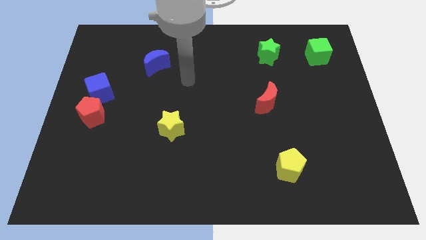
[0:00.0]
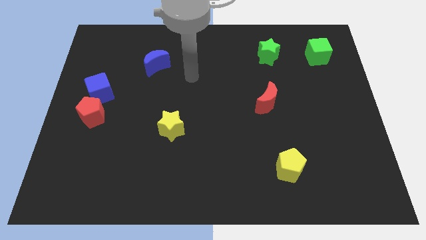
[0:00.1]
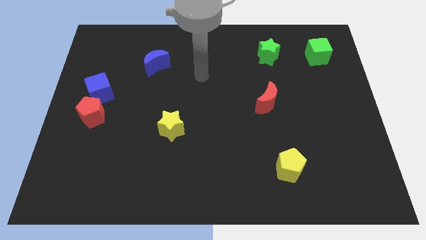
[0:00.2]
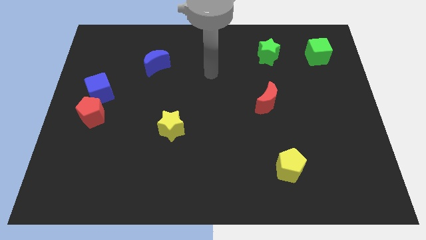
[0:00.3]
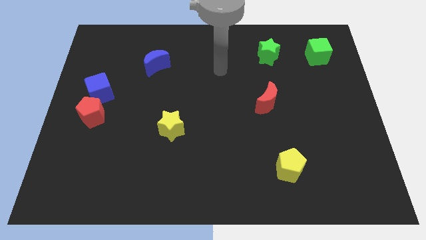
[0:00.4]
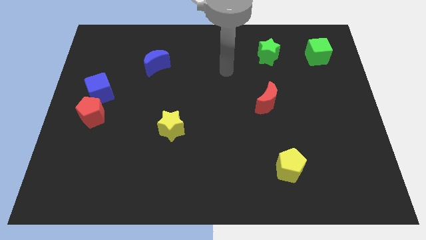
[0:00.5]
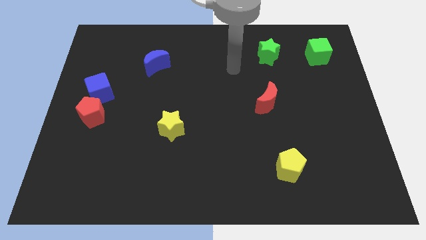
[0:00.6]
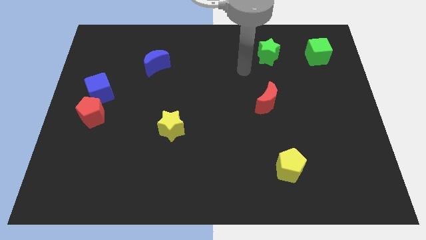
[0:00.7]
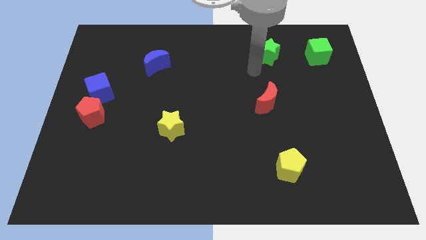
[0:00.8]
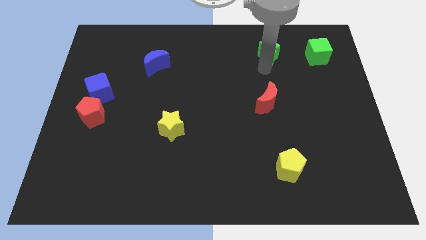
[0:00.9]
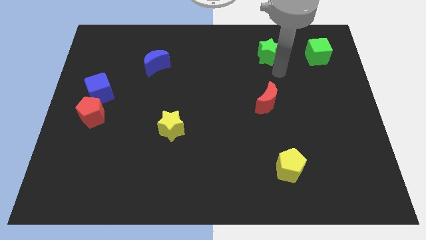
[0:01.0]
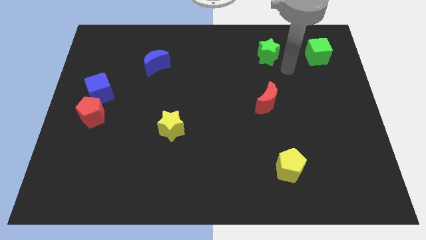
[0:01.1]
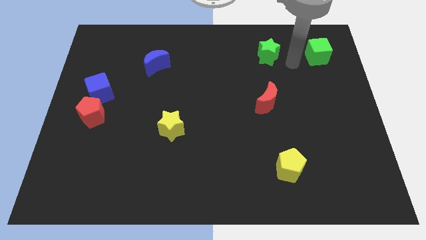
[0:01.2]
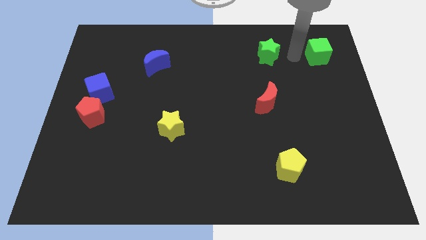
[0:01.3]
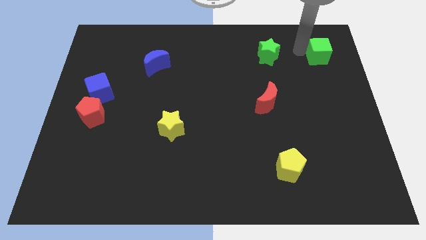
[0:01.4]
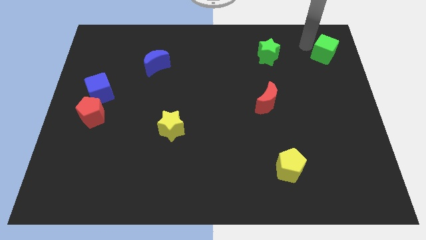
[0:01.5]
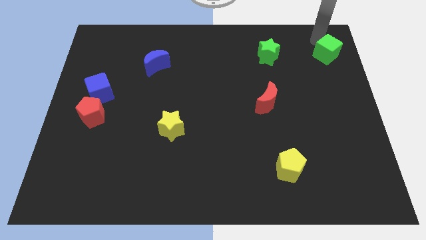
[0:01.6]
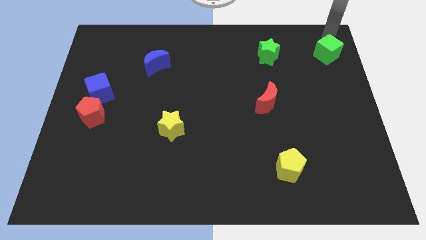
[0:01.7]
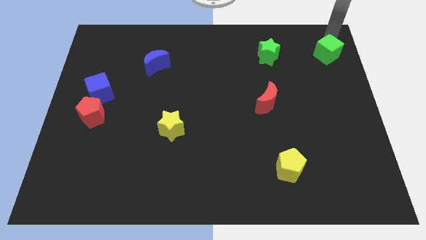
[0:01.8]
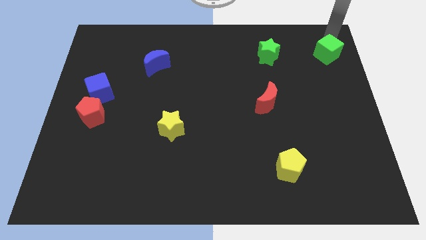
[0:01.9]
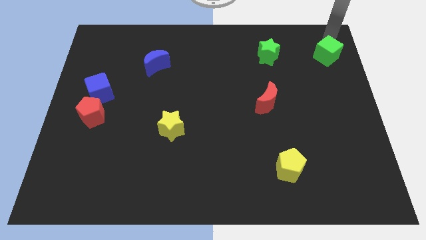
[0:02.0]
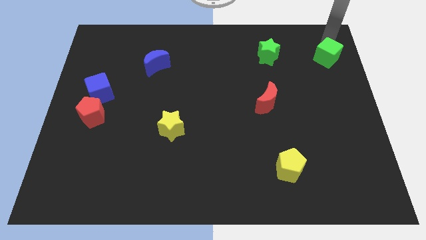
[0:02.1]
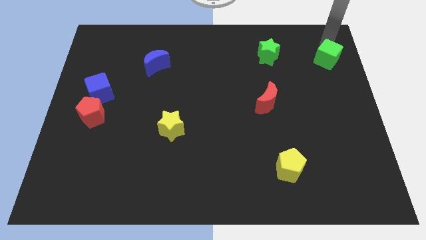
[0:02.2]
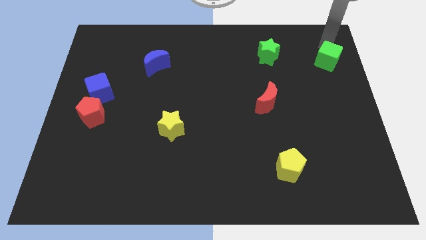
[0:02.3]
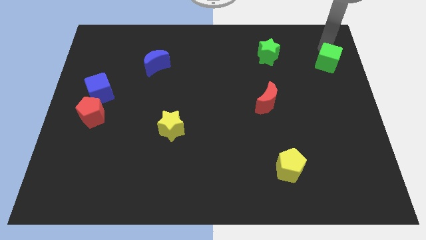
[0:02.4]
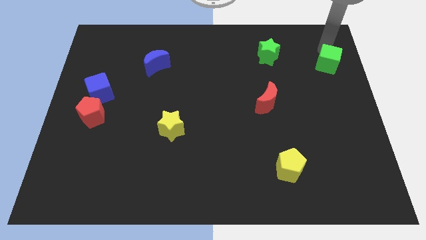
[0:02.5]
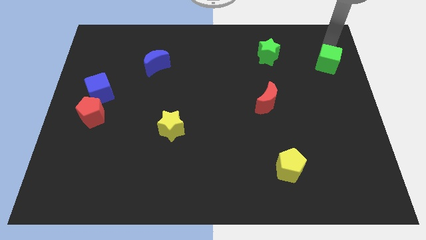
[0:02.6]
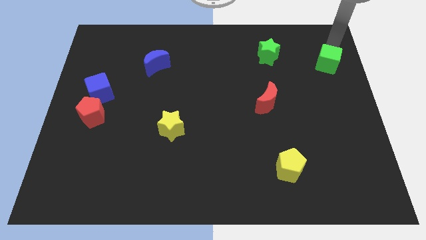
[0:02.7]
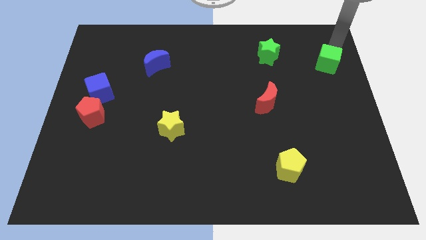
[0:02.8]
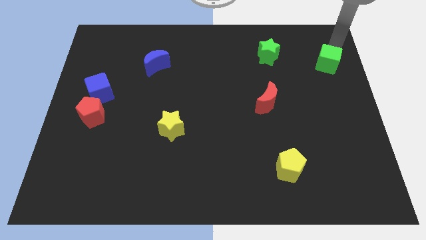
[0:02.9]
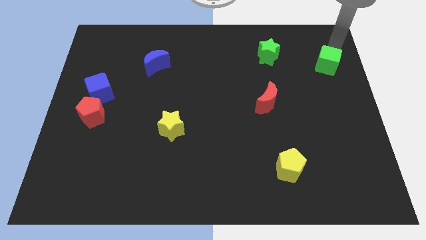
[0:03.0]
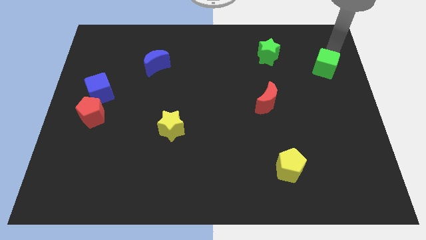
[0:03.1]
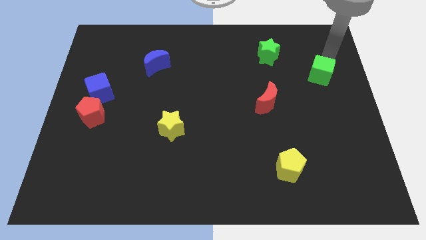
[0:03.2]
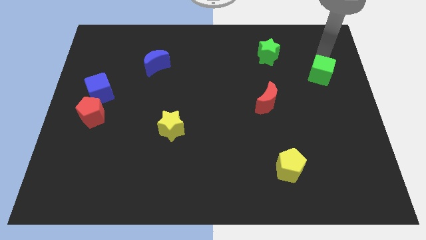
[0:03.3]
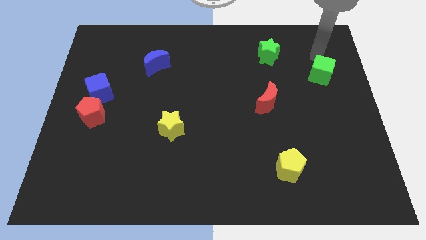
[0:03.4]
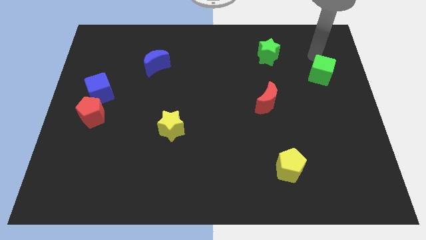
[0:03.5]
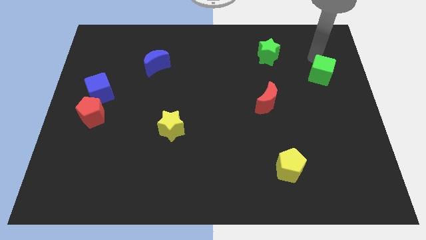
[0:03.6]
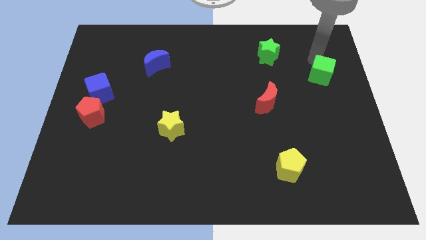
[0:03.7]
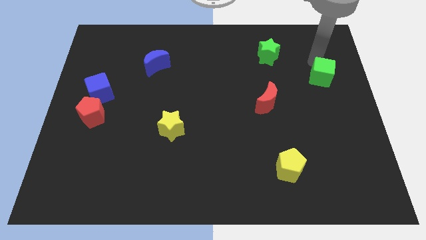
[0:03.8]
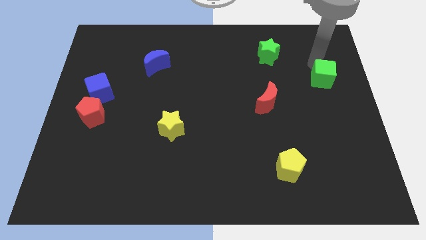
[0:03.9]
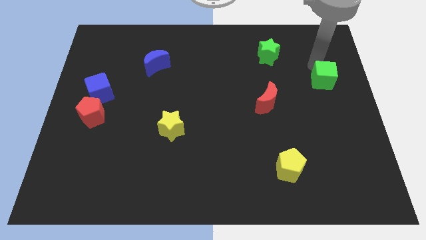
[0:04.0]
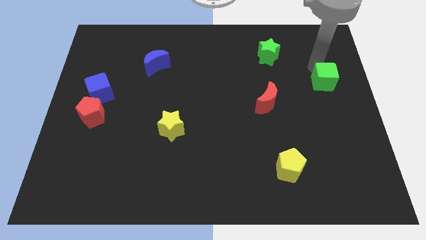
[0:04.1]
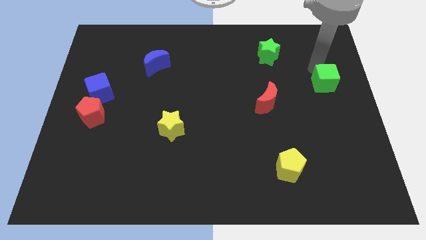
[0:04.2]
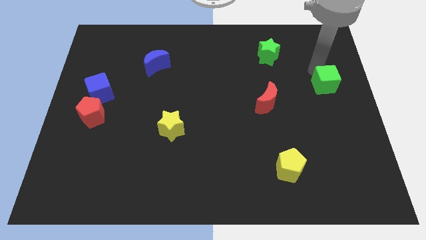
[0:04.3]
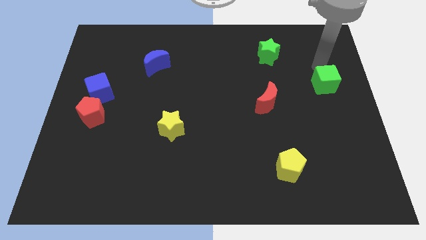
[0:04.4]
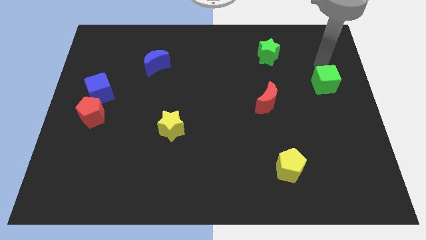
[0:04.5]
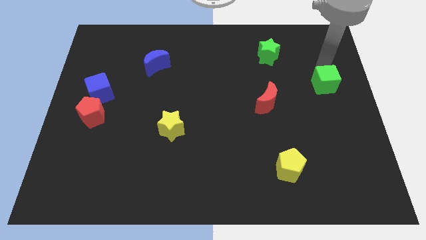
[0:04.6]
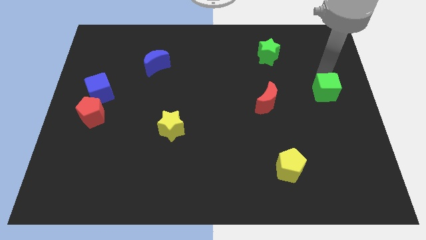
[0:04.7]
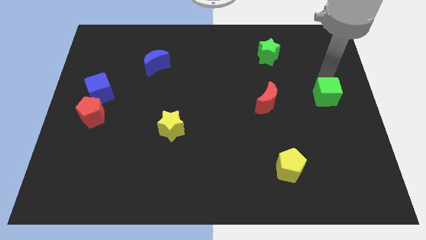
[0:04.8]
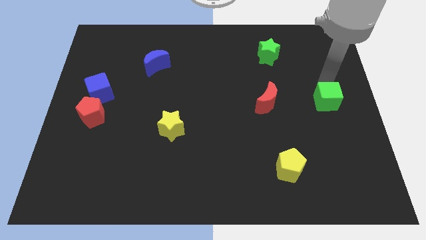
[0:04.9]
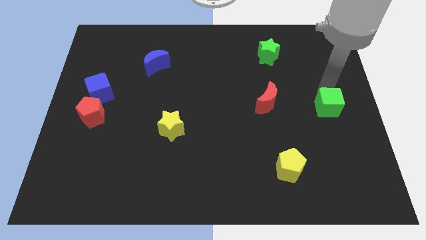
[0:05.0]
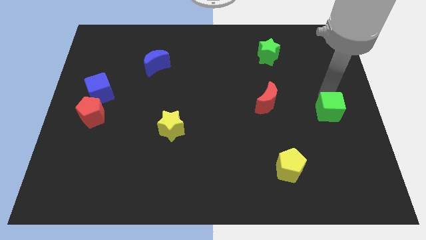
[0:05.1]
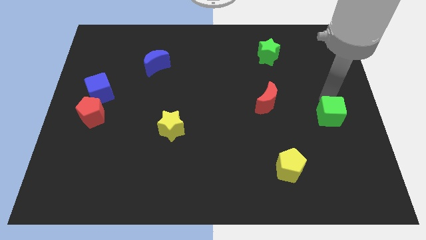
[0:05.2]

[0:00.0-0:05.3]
slide the green cube downwards

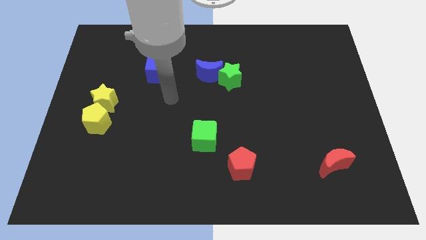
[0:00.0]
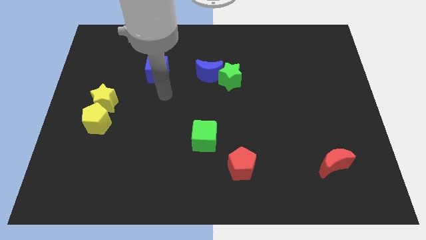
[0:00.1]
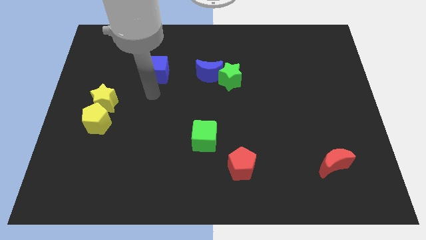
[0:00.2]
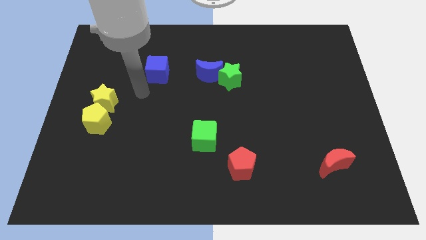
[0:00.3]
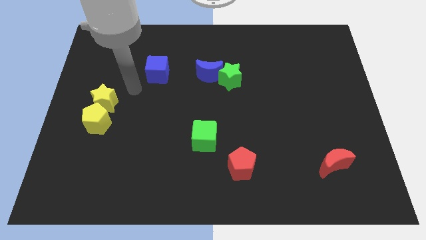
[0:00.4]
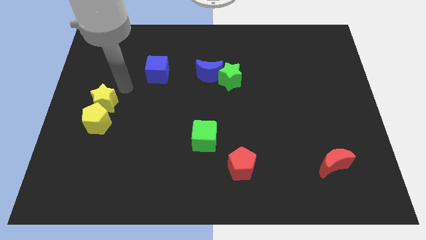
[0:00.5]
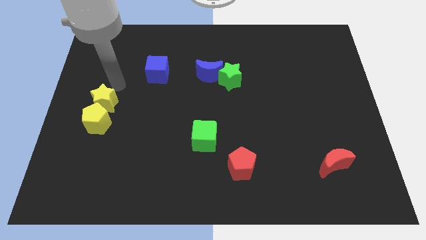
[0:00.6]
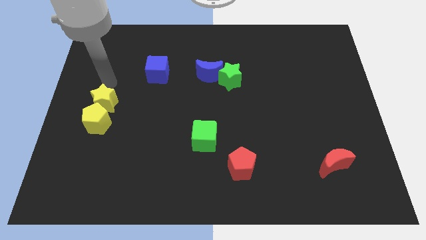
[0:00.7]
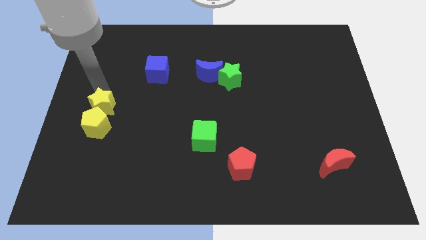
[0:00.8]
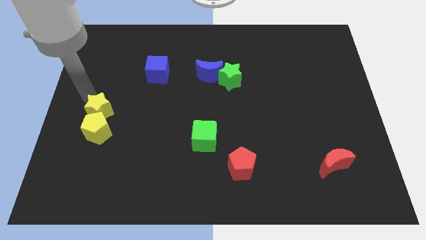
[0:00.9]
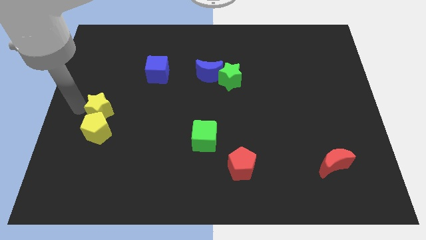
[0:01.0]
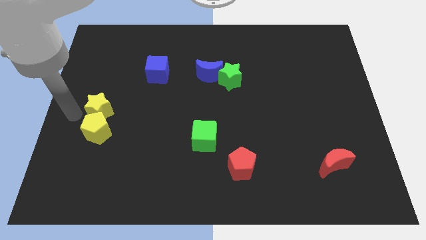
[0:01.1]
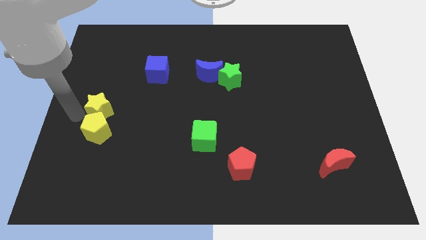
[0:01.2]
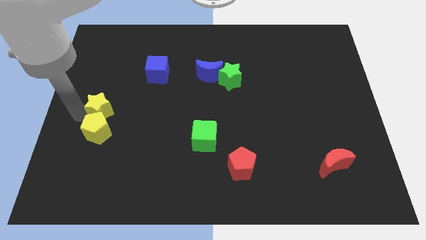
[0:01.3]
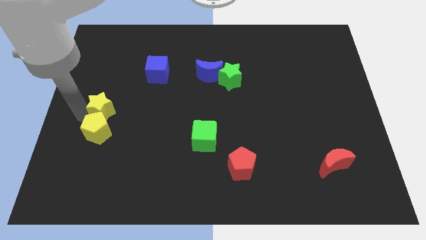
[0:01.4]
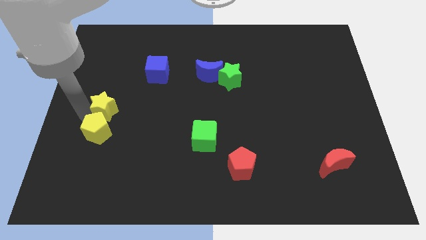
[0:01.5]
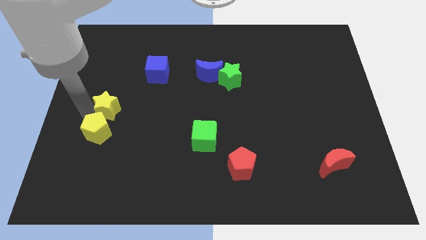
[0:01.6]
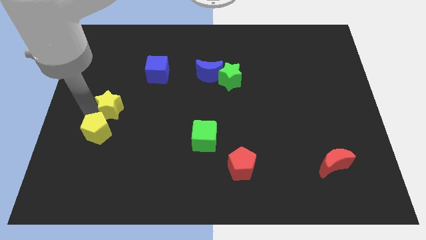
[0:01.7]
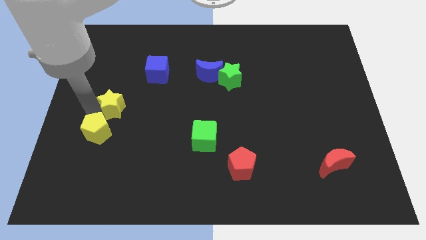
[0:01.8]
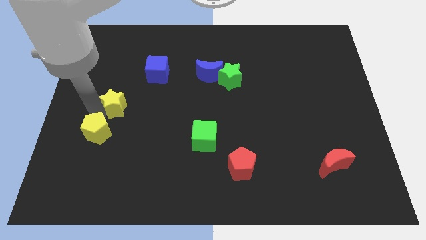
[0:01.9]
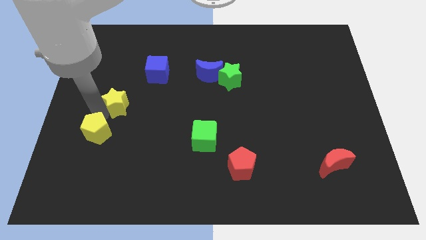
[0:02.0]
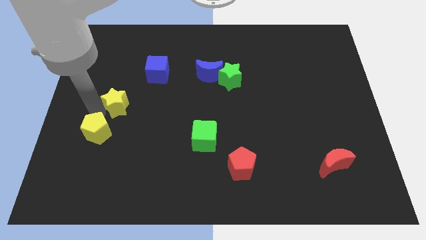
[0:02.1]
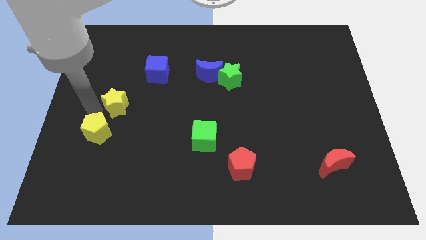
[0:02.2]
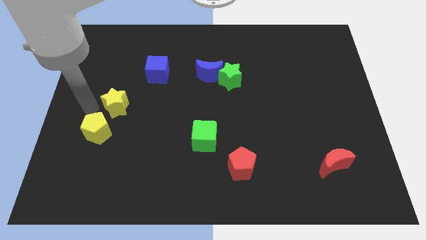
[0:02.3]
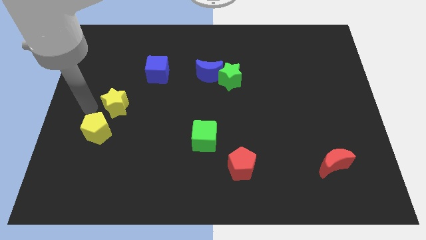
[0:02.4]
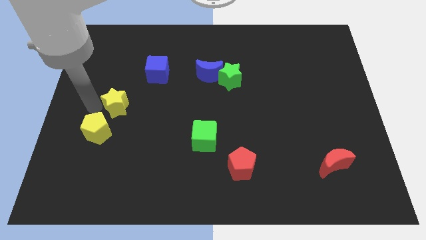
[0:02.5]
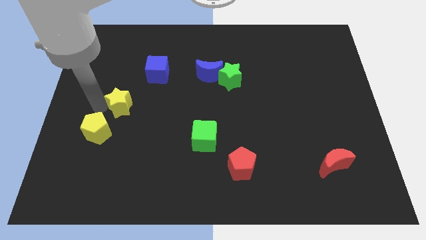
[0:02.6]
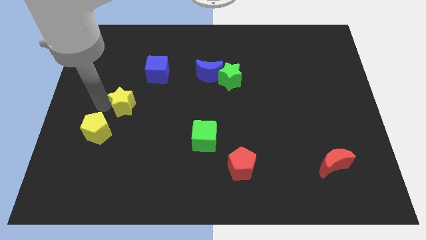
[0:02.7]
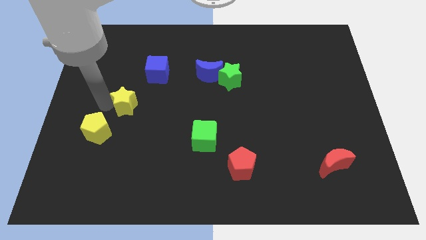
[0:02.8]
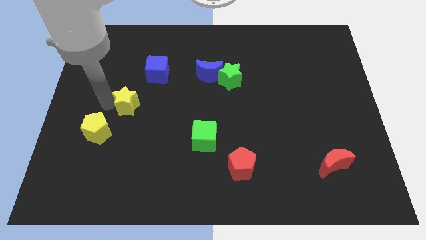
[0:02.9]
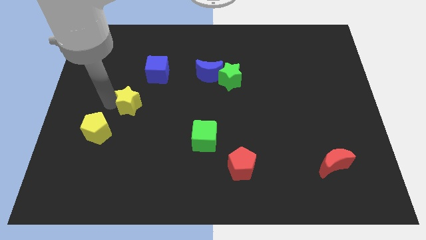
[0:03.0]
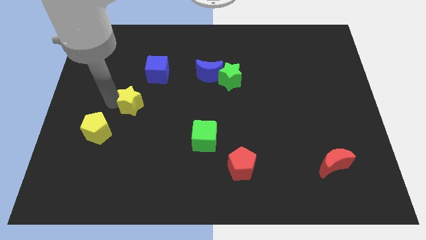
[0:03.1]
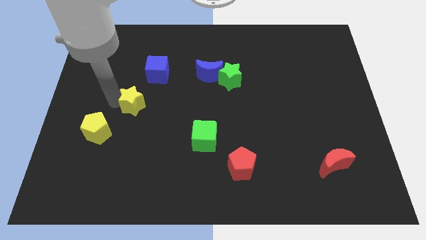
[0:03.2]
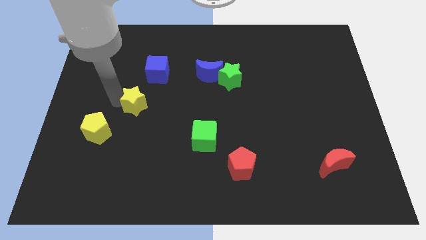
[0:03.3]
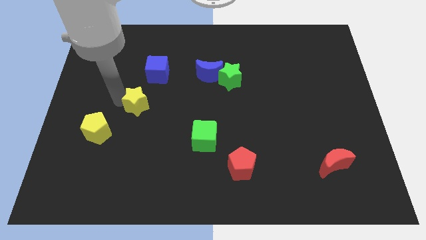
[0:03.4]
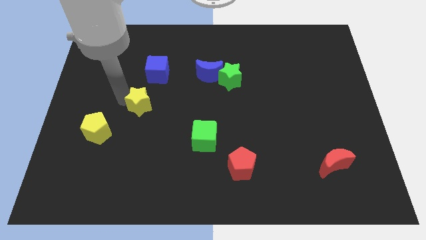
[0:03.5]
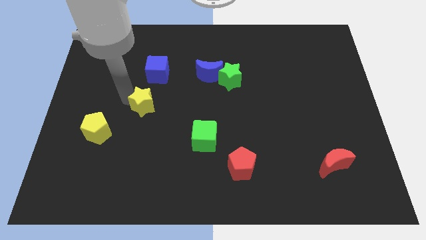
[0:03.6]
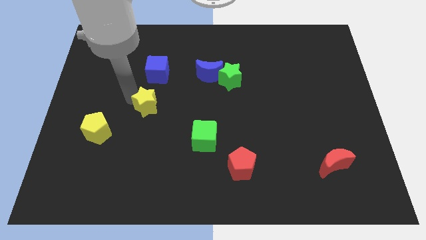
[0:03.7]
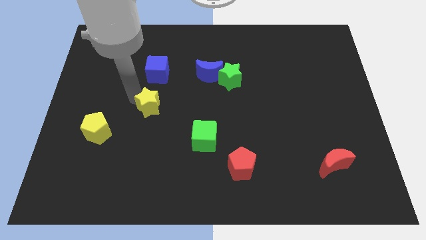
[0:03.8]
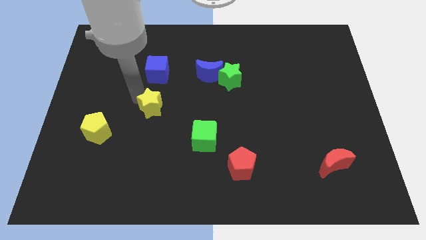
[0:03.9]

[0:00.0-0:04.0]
slide the yellow star down and right diagonally a bit
